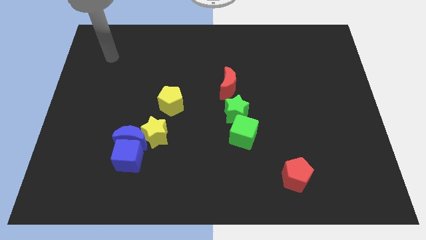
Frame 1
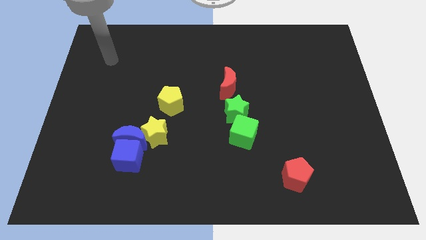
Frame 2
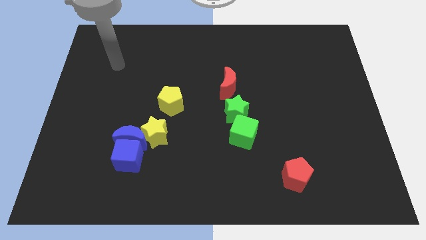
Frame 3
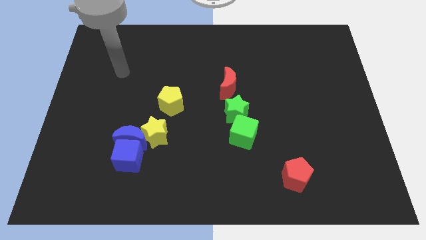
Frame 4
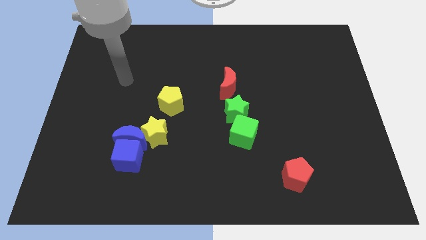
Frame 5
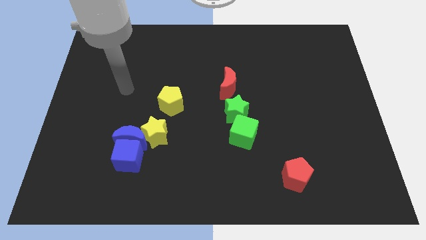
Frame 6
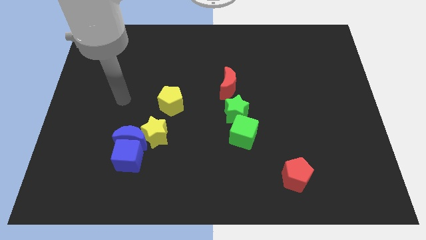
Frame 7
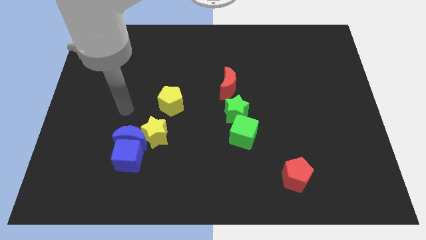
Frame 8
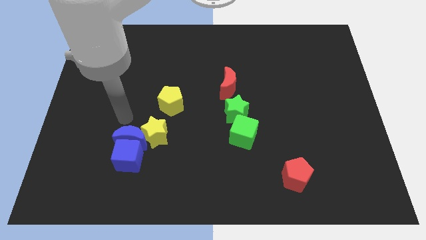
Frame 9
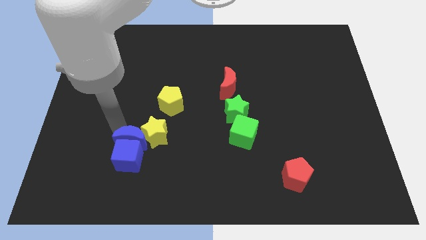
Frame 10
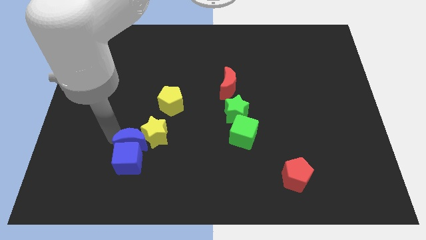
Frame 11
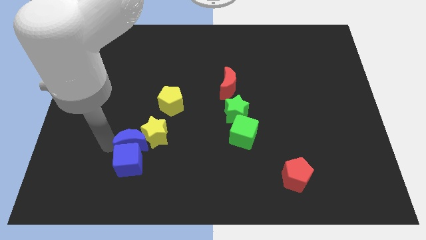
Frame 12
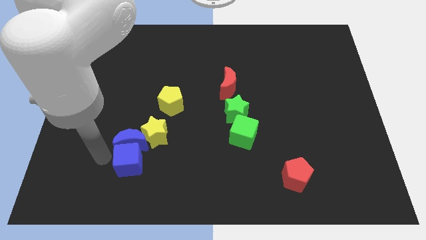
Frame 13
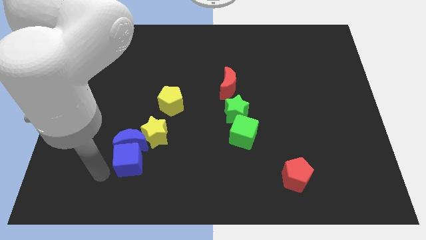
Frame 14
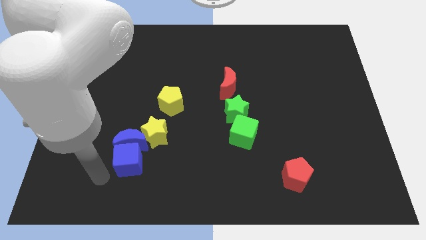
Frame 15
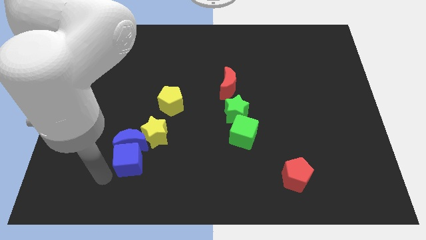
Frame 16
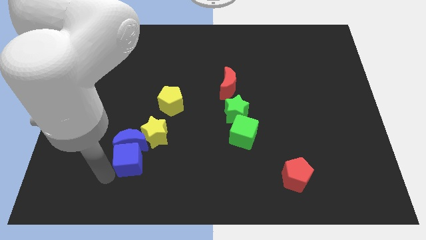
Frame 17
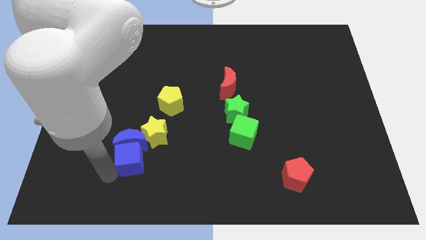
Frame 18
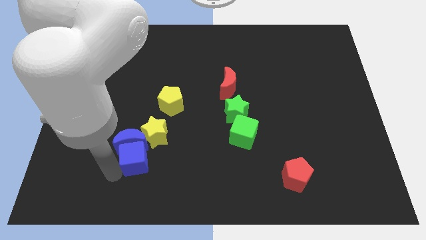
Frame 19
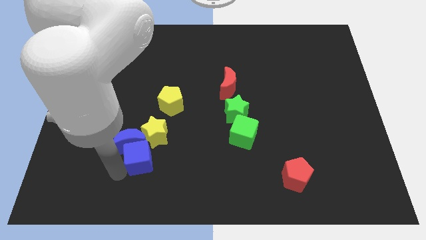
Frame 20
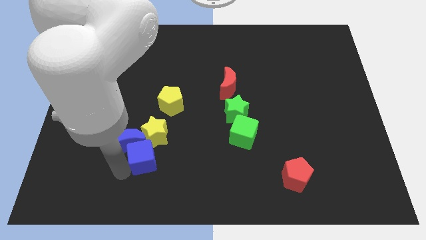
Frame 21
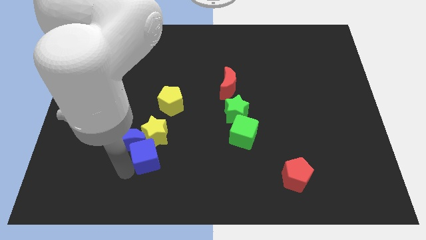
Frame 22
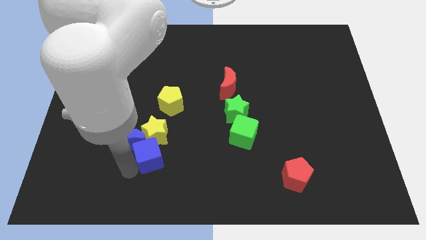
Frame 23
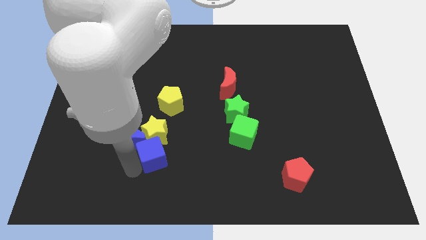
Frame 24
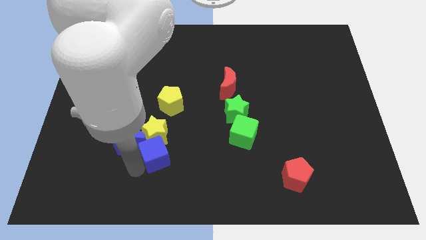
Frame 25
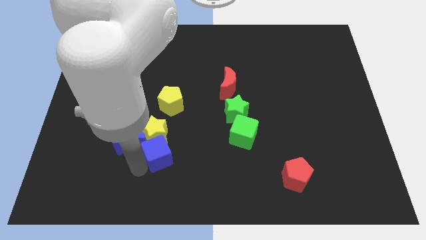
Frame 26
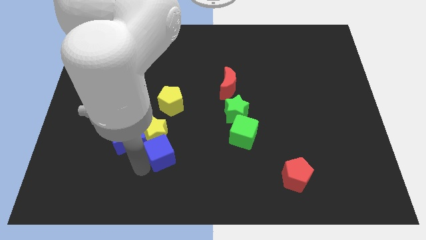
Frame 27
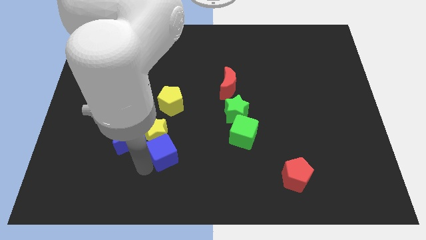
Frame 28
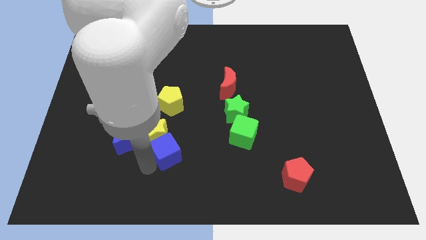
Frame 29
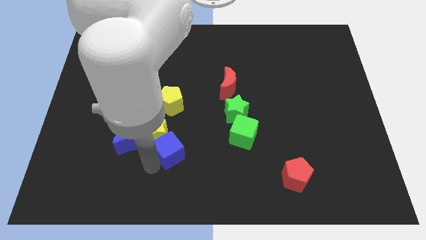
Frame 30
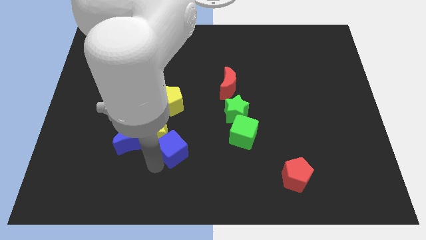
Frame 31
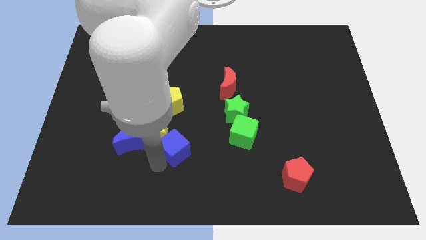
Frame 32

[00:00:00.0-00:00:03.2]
slightly push the blue cube diagonally up and right

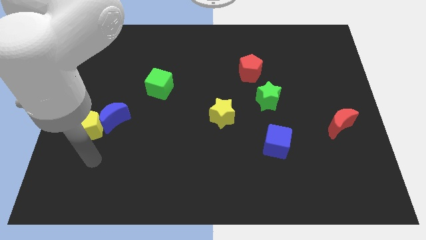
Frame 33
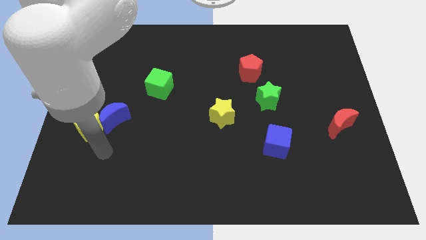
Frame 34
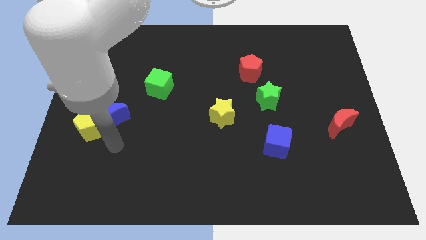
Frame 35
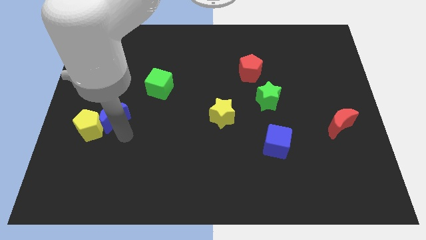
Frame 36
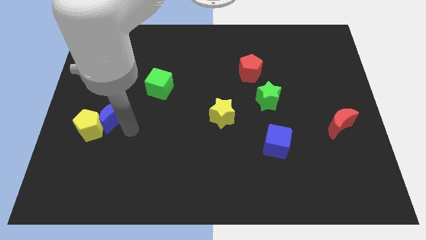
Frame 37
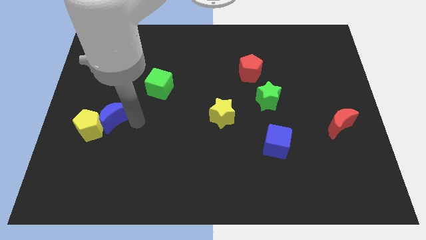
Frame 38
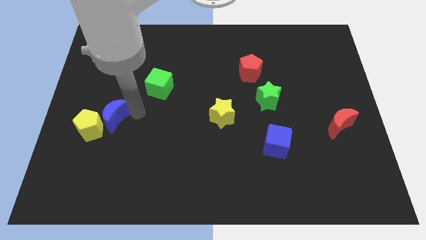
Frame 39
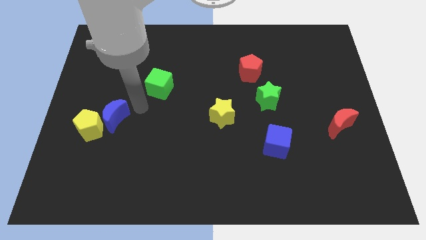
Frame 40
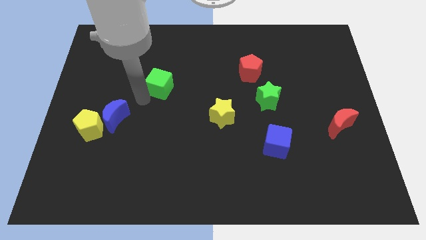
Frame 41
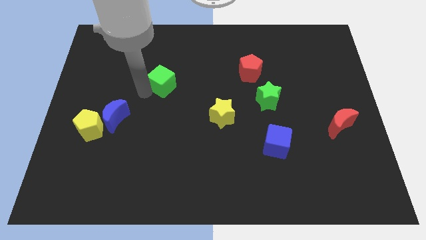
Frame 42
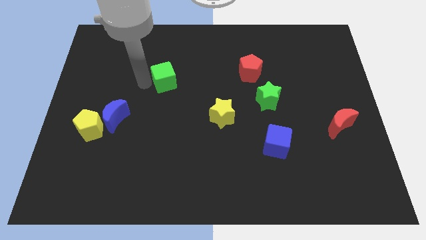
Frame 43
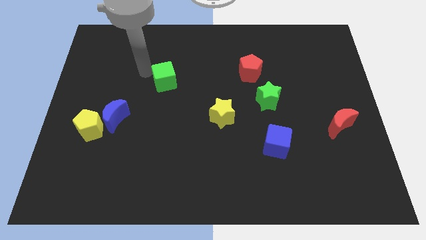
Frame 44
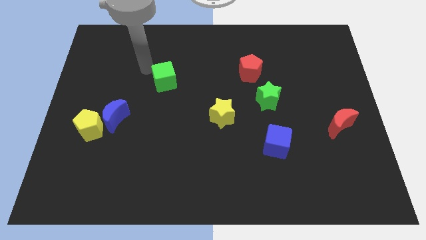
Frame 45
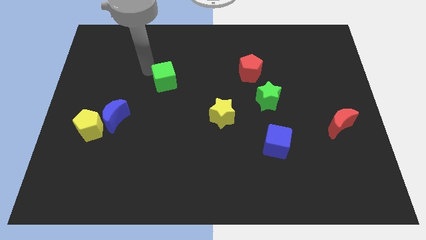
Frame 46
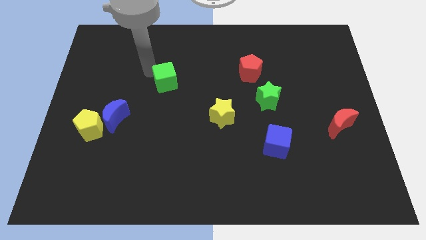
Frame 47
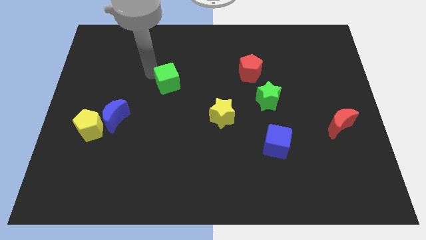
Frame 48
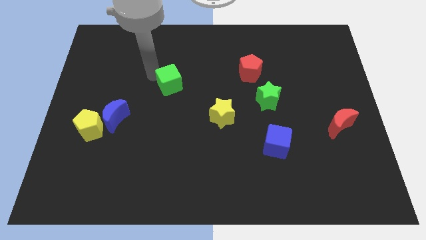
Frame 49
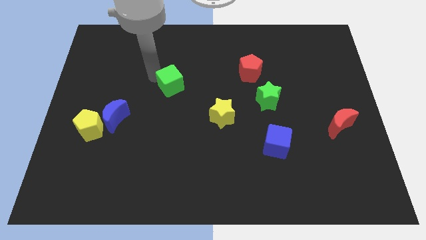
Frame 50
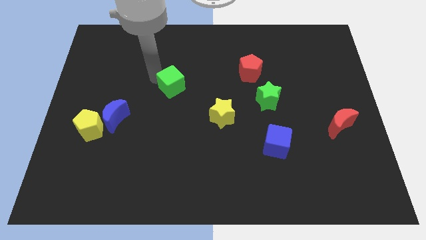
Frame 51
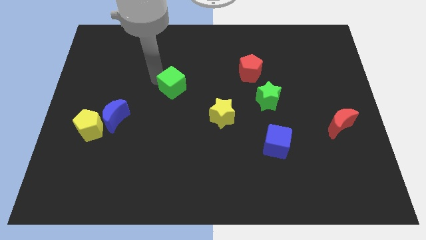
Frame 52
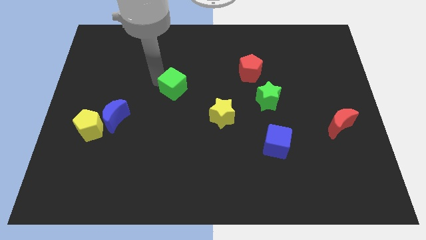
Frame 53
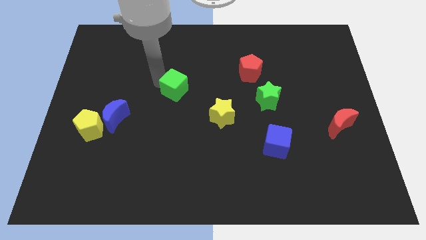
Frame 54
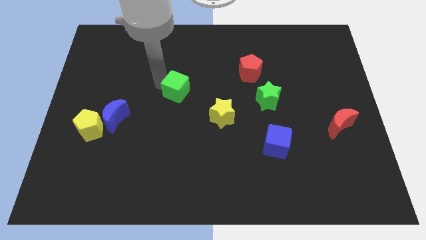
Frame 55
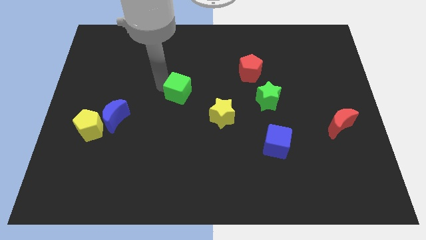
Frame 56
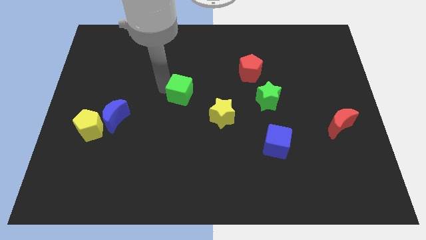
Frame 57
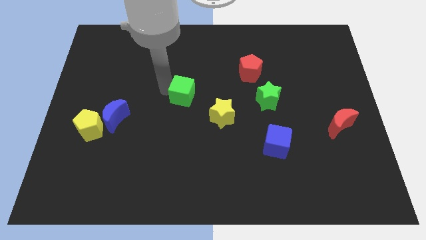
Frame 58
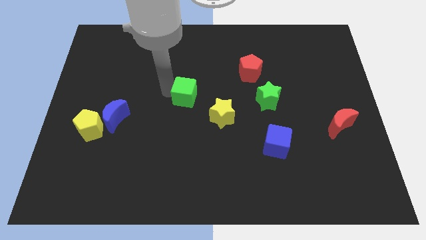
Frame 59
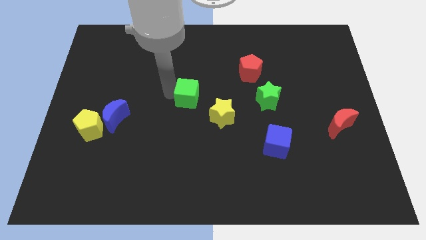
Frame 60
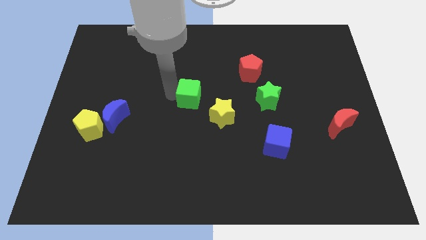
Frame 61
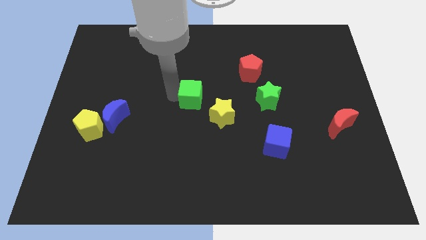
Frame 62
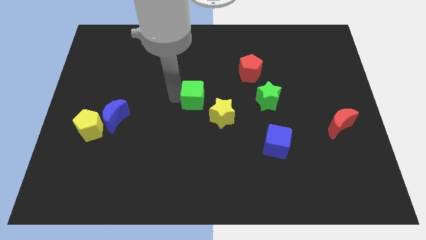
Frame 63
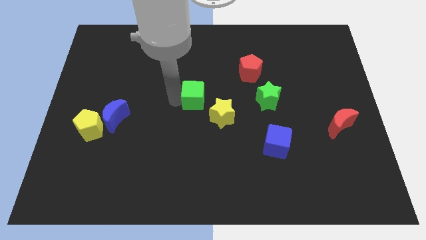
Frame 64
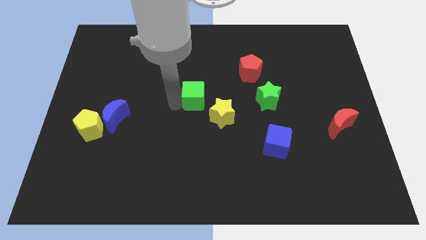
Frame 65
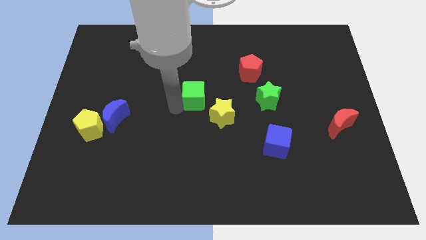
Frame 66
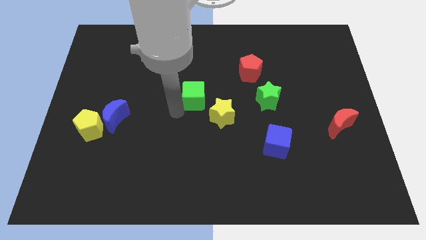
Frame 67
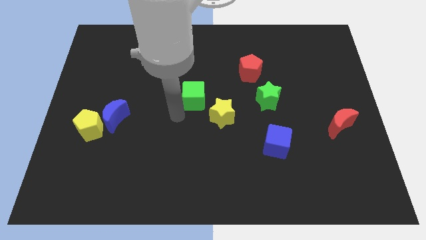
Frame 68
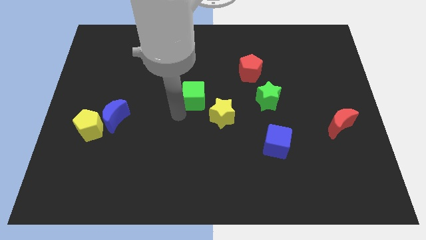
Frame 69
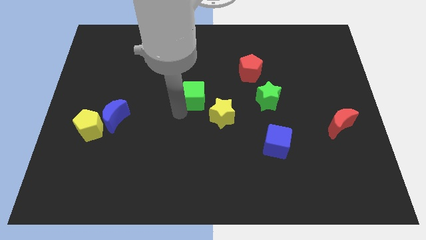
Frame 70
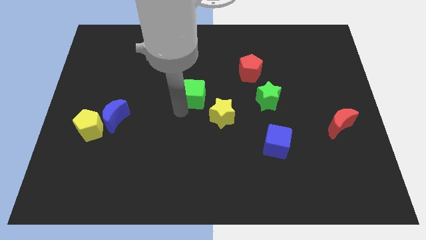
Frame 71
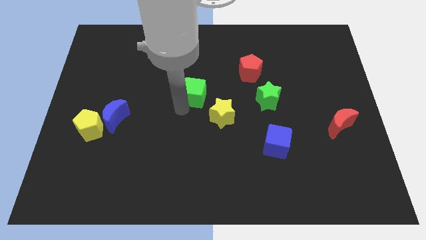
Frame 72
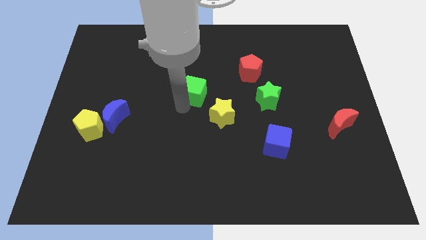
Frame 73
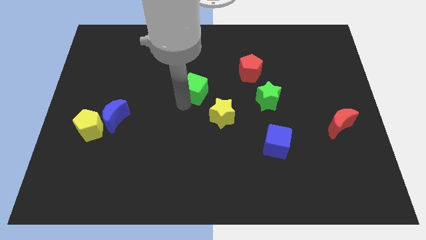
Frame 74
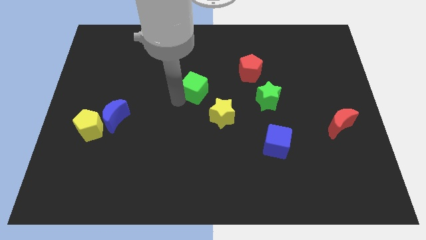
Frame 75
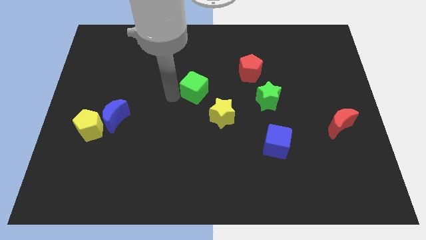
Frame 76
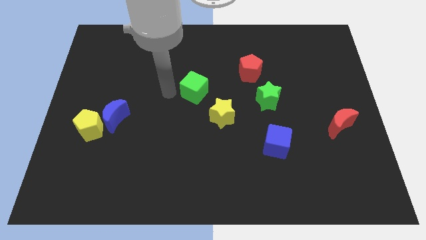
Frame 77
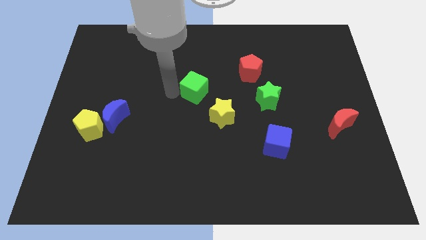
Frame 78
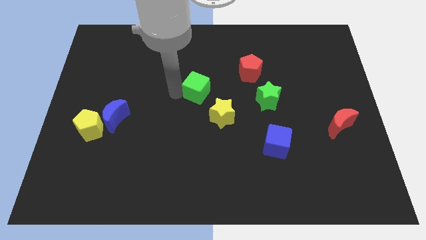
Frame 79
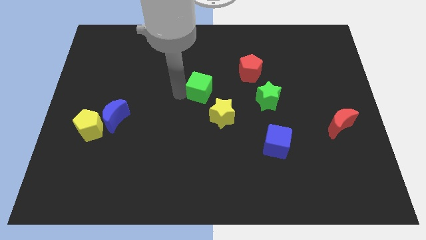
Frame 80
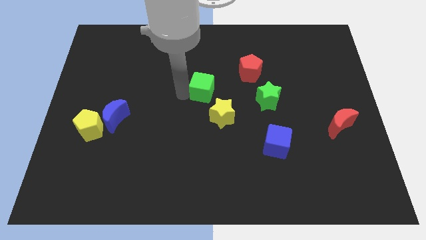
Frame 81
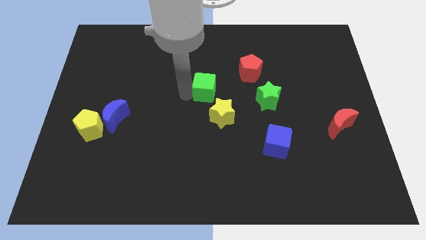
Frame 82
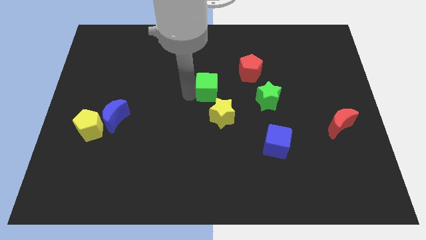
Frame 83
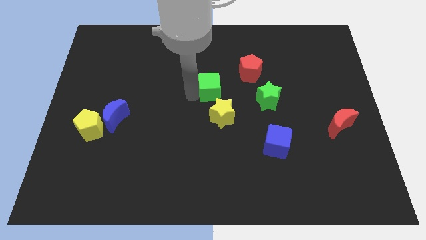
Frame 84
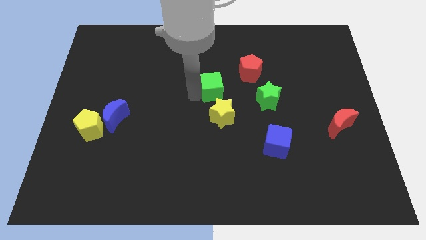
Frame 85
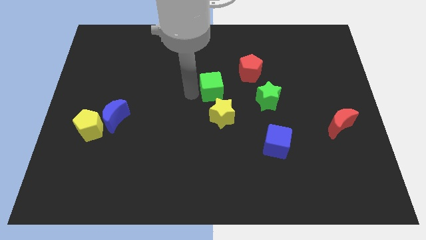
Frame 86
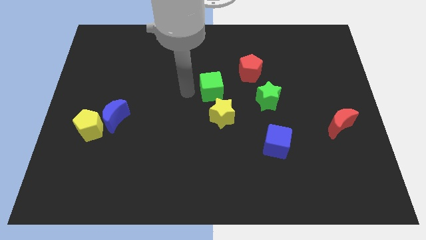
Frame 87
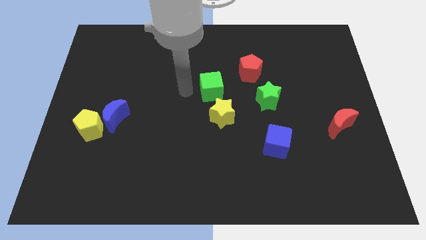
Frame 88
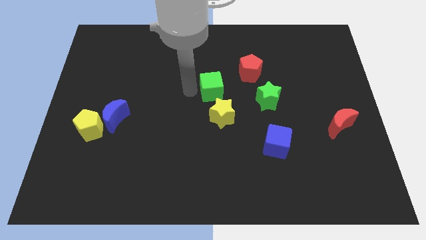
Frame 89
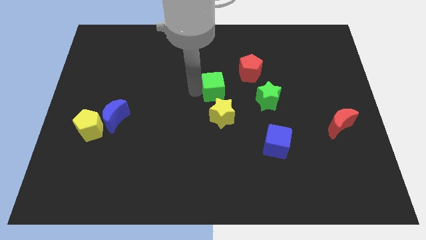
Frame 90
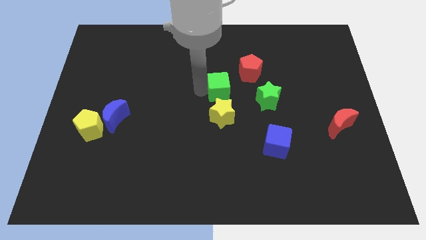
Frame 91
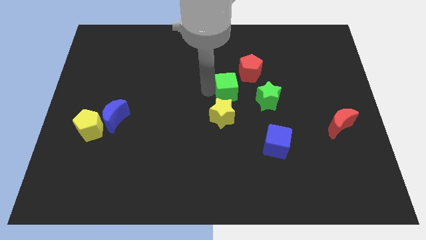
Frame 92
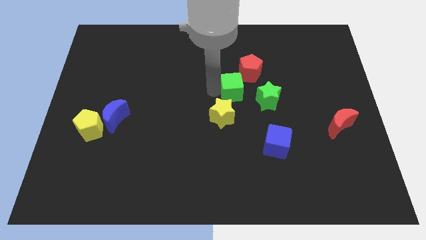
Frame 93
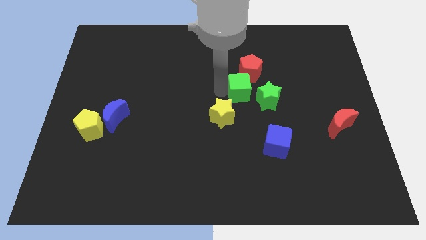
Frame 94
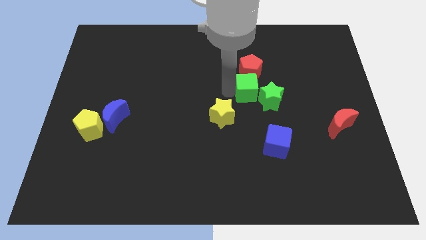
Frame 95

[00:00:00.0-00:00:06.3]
push the green cube right
